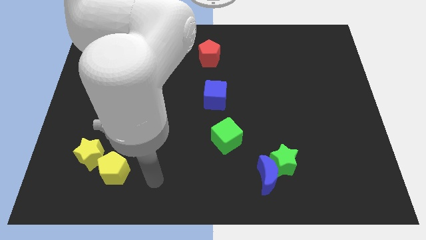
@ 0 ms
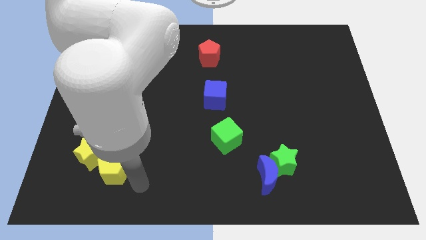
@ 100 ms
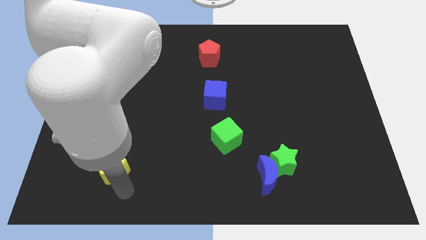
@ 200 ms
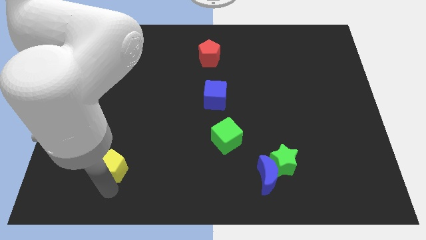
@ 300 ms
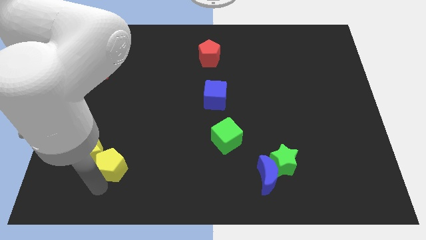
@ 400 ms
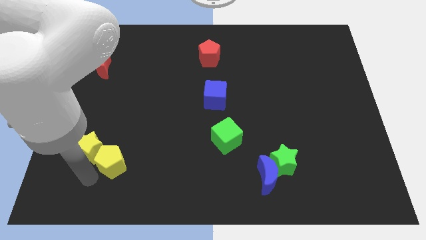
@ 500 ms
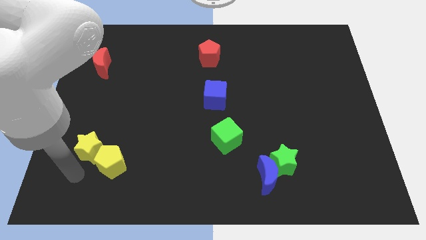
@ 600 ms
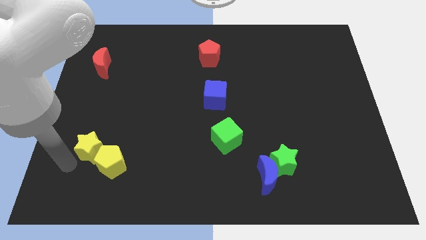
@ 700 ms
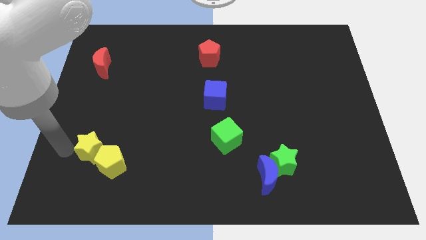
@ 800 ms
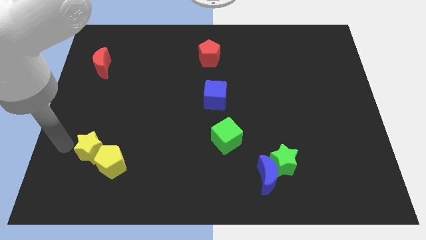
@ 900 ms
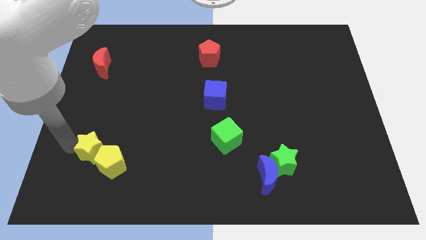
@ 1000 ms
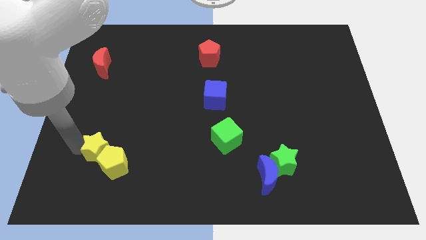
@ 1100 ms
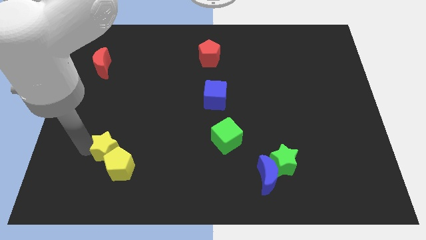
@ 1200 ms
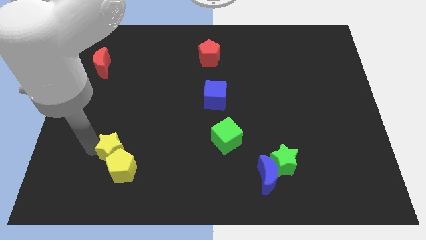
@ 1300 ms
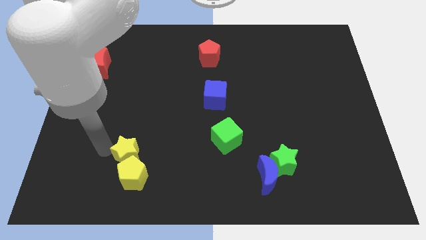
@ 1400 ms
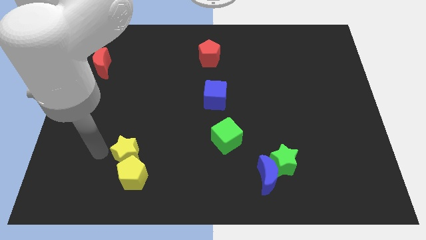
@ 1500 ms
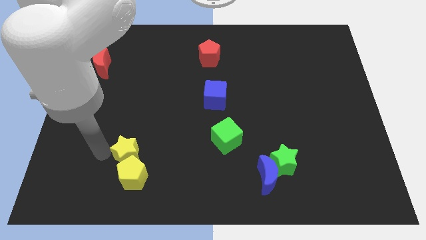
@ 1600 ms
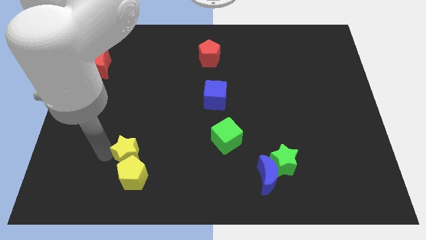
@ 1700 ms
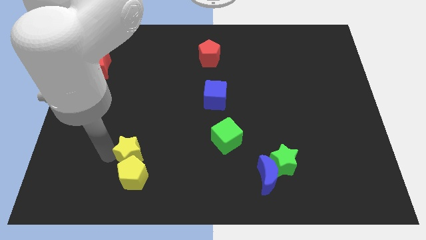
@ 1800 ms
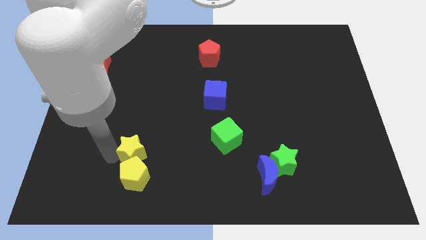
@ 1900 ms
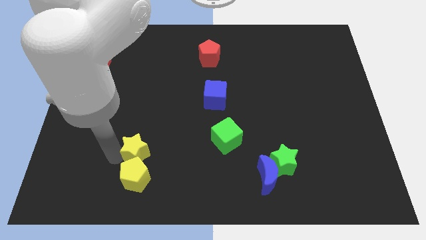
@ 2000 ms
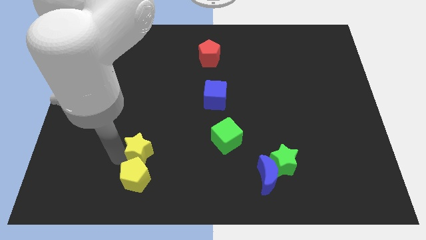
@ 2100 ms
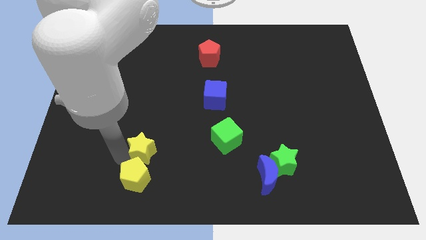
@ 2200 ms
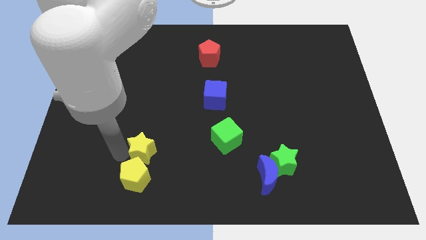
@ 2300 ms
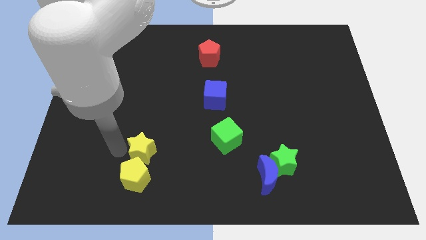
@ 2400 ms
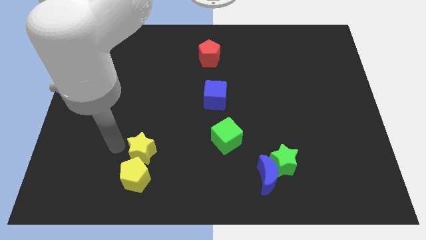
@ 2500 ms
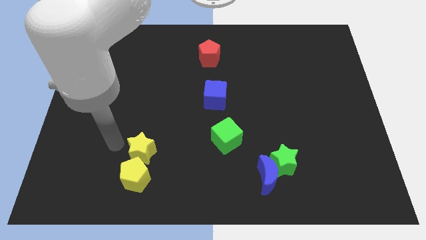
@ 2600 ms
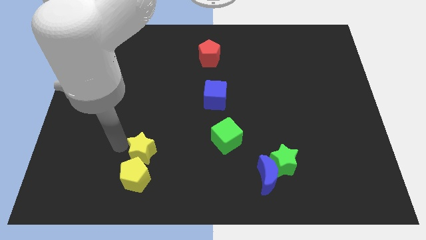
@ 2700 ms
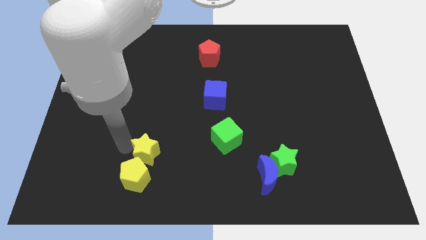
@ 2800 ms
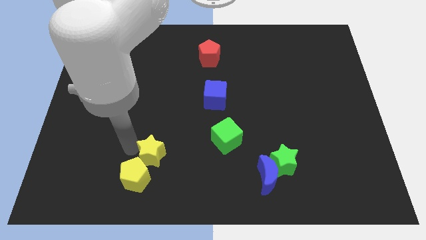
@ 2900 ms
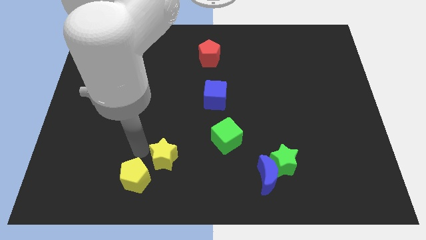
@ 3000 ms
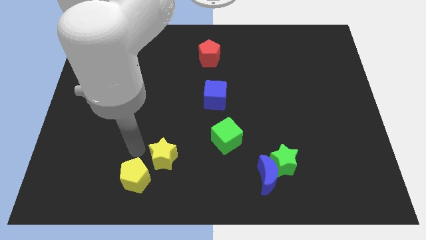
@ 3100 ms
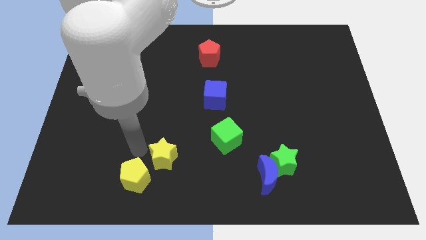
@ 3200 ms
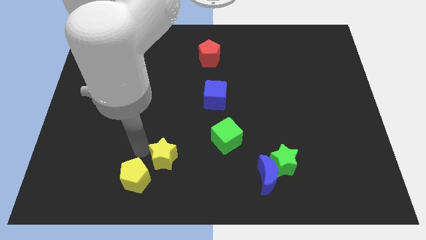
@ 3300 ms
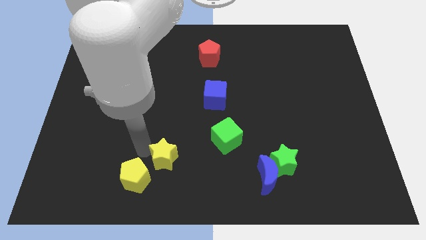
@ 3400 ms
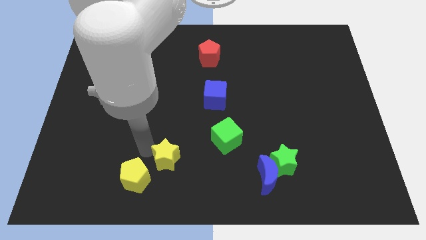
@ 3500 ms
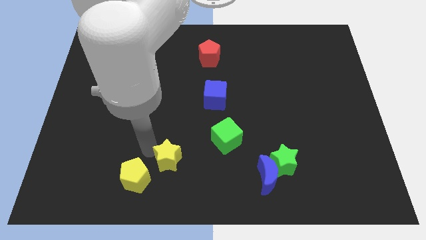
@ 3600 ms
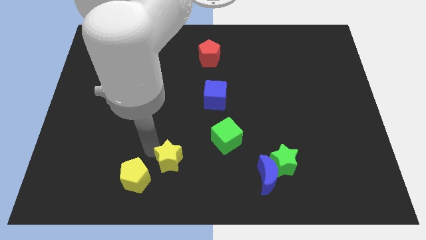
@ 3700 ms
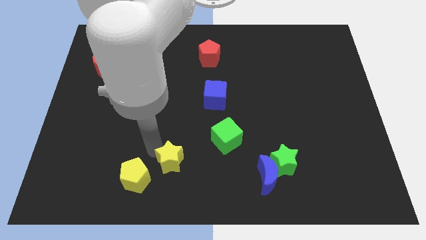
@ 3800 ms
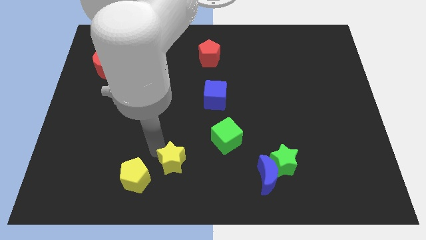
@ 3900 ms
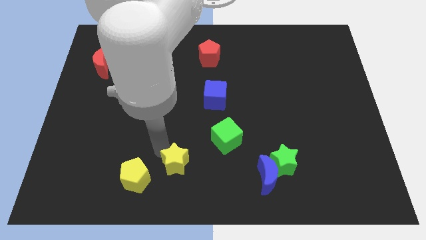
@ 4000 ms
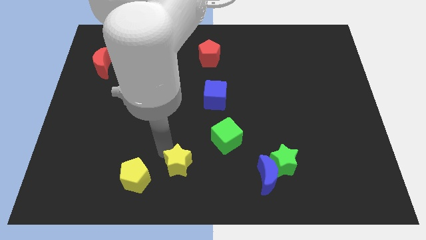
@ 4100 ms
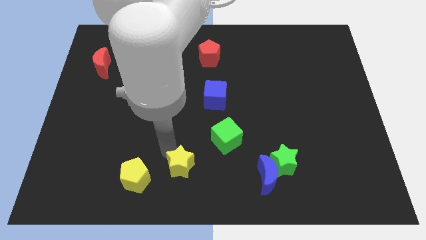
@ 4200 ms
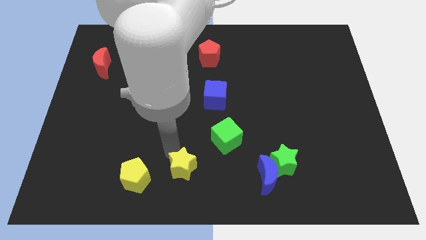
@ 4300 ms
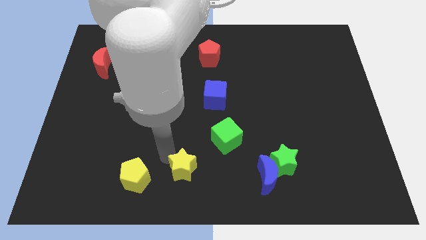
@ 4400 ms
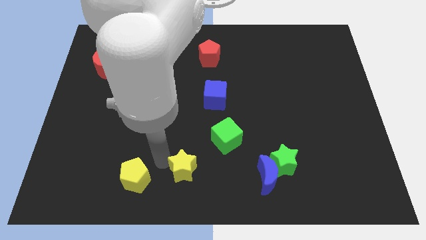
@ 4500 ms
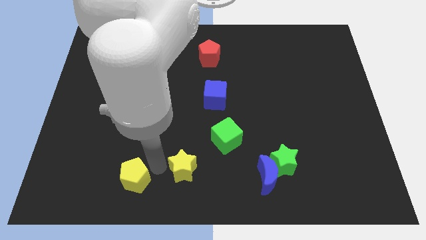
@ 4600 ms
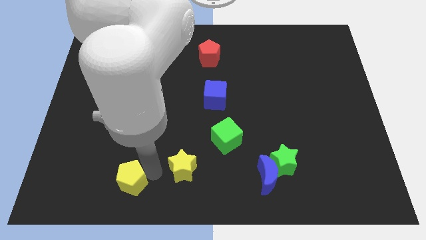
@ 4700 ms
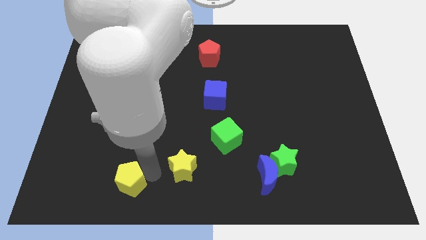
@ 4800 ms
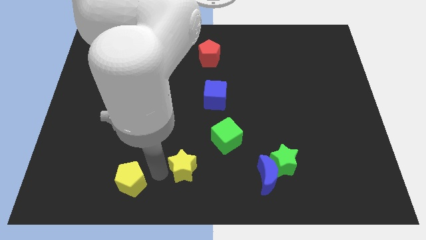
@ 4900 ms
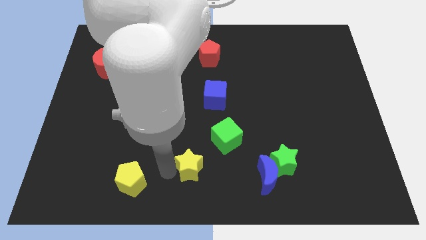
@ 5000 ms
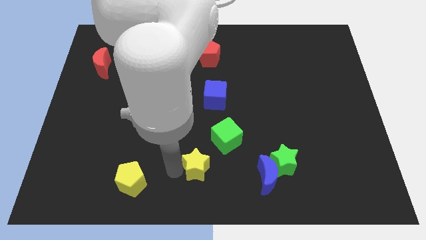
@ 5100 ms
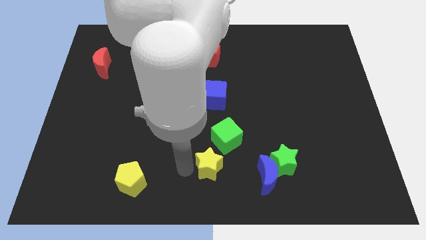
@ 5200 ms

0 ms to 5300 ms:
slide the yellow star just left of the green star

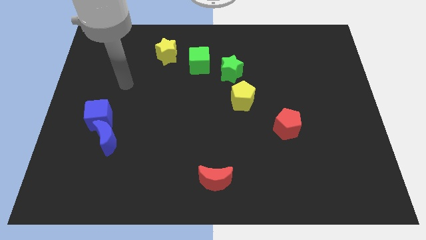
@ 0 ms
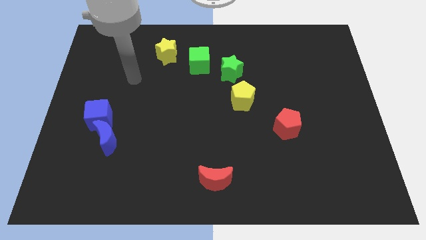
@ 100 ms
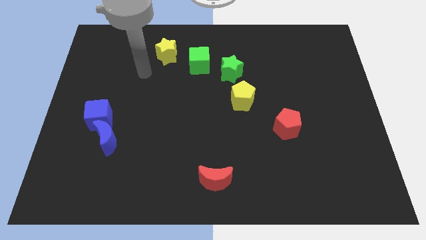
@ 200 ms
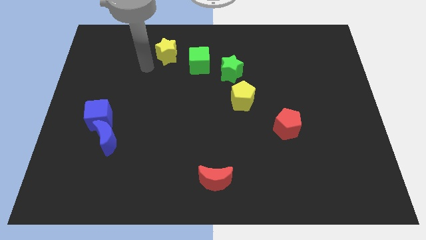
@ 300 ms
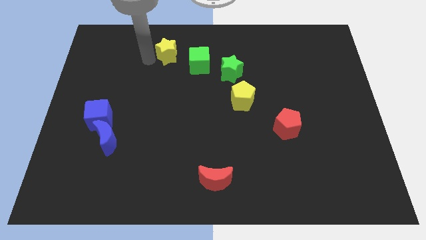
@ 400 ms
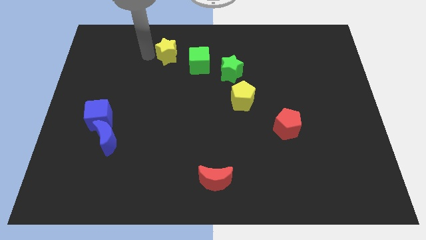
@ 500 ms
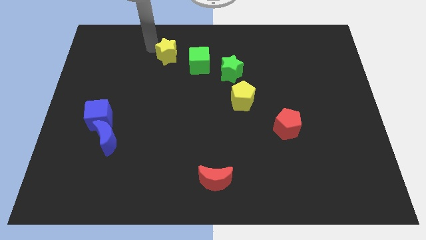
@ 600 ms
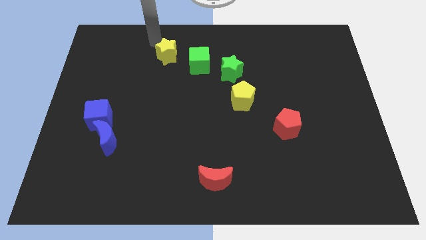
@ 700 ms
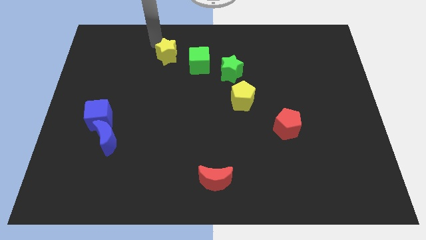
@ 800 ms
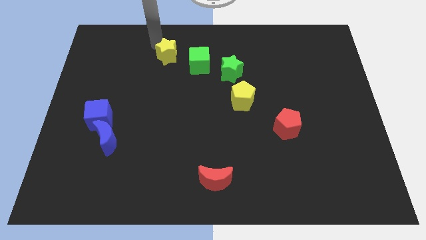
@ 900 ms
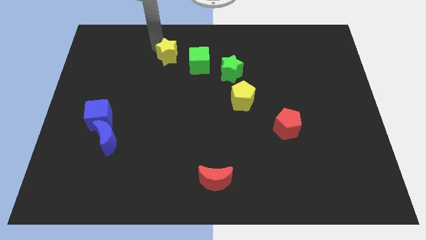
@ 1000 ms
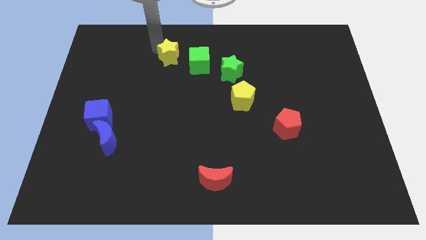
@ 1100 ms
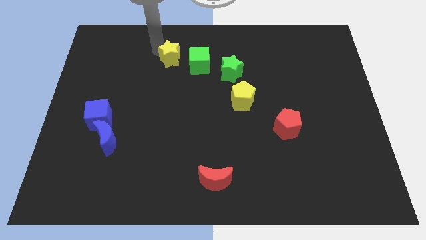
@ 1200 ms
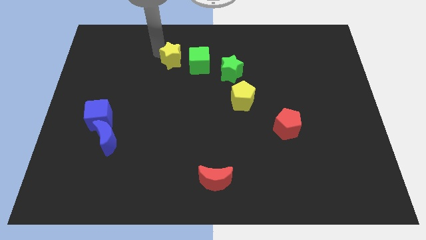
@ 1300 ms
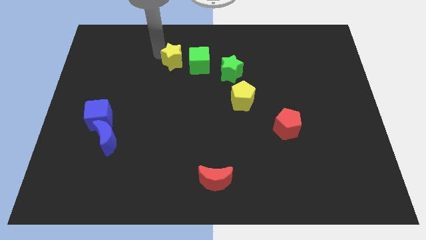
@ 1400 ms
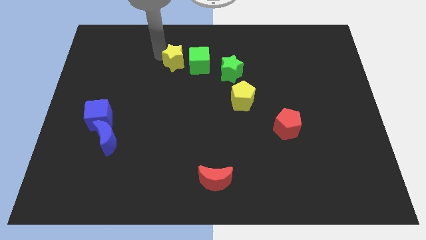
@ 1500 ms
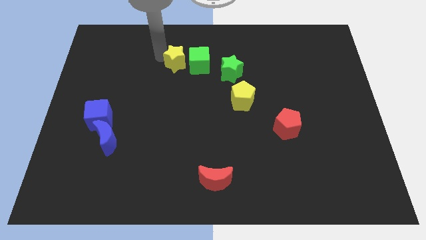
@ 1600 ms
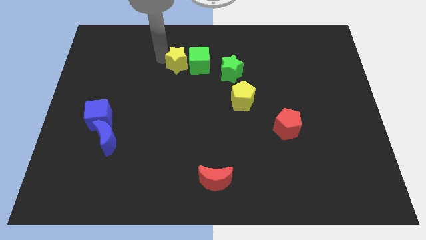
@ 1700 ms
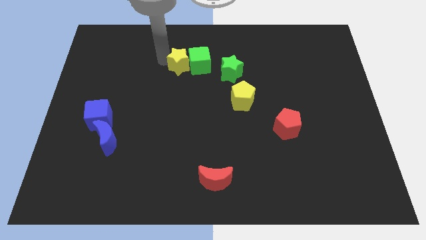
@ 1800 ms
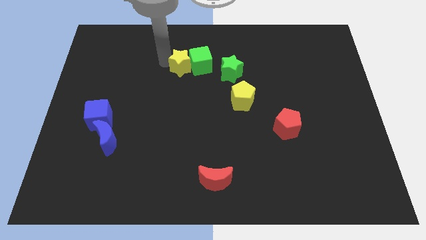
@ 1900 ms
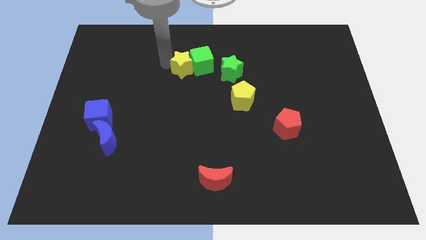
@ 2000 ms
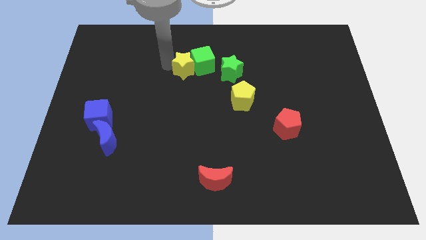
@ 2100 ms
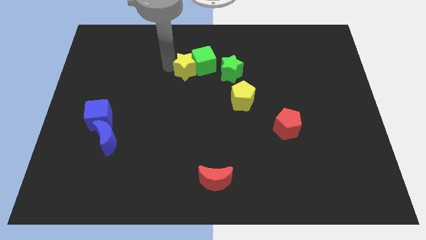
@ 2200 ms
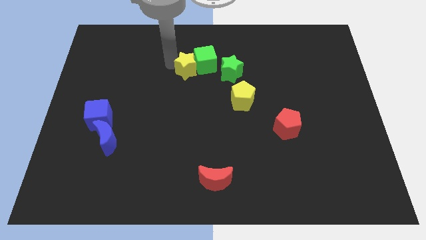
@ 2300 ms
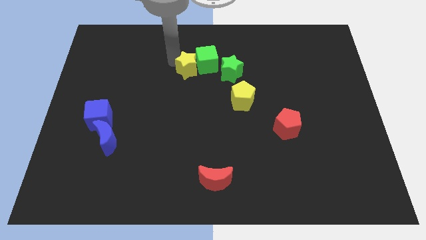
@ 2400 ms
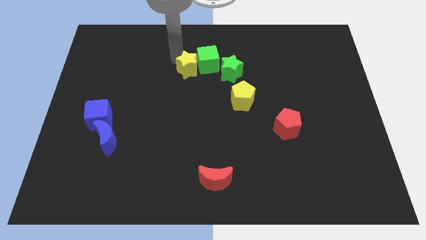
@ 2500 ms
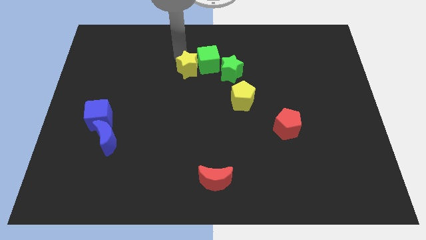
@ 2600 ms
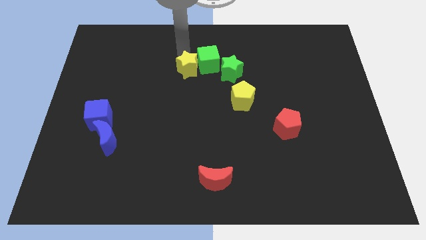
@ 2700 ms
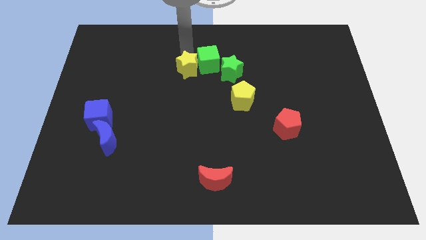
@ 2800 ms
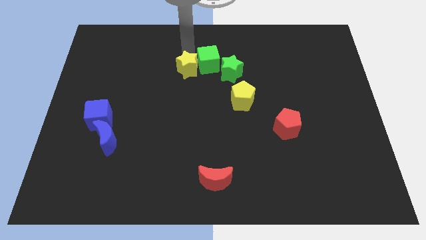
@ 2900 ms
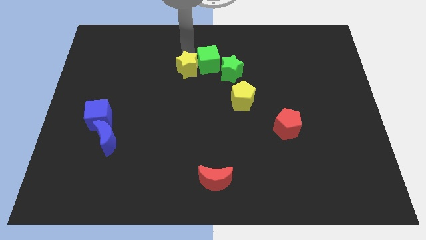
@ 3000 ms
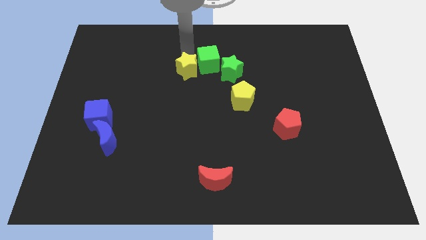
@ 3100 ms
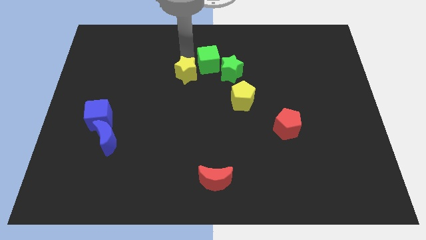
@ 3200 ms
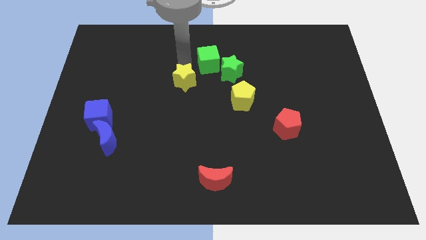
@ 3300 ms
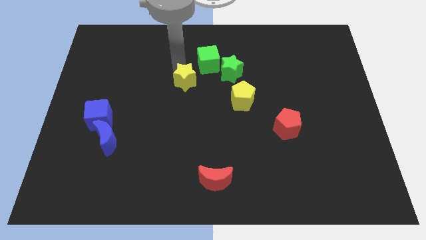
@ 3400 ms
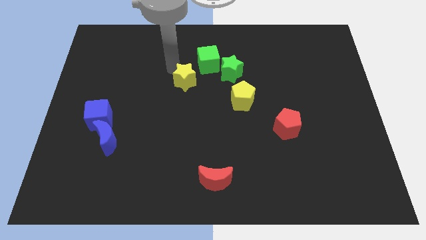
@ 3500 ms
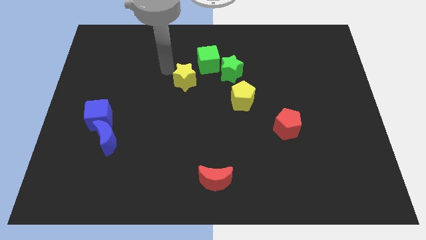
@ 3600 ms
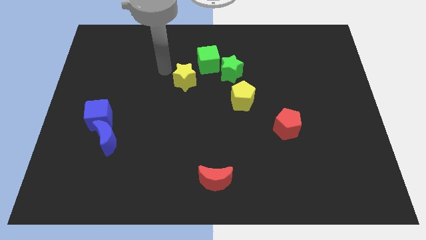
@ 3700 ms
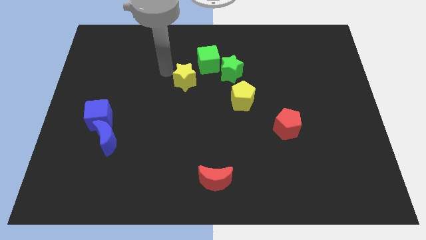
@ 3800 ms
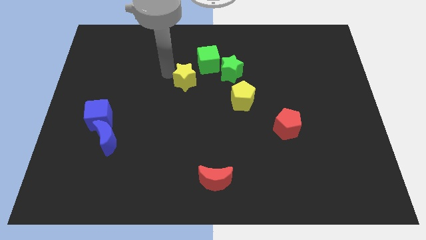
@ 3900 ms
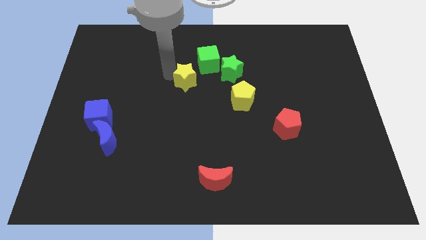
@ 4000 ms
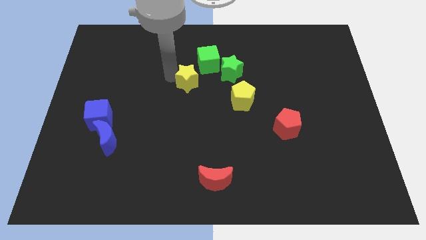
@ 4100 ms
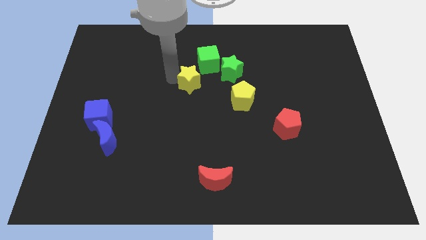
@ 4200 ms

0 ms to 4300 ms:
move the yellow star to the bottom of the green cube
